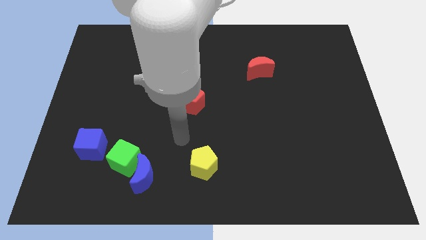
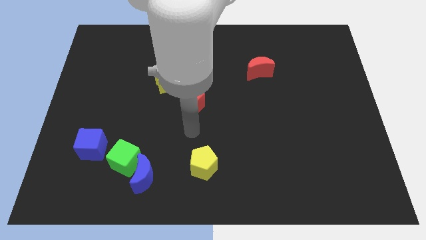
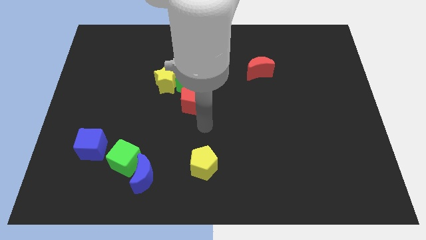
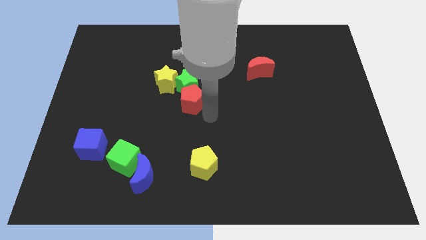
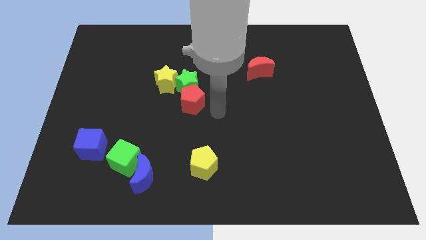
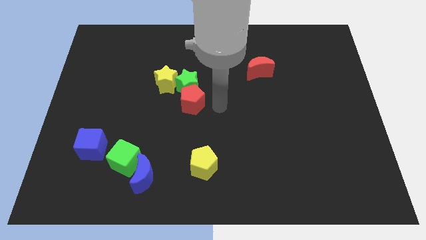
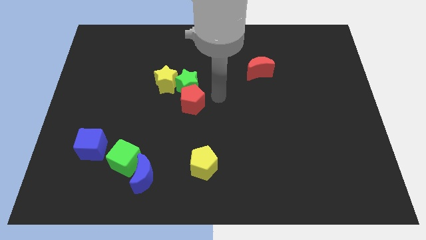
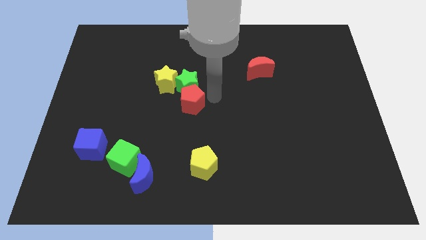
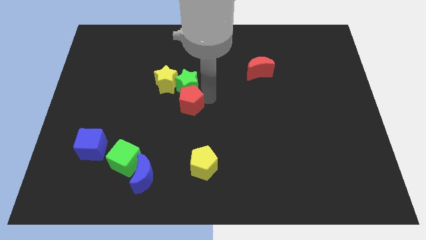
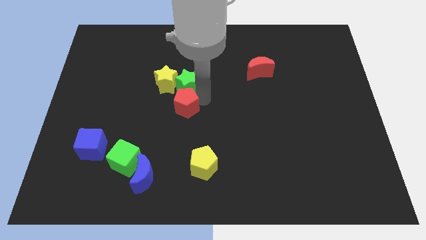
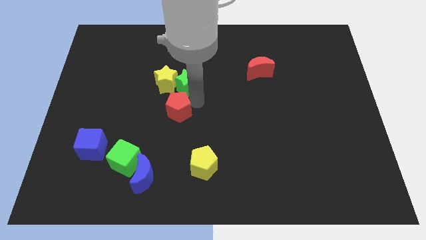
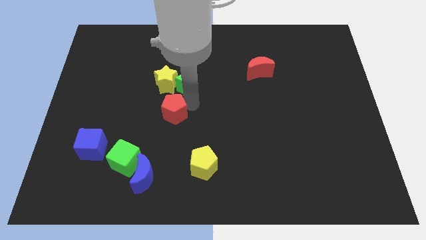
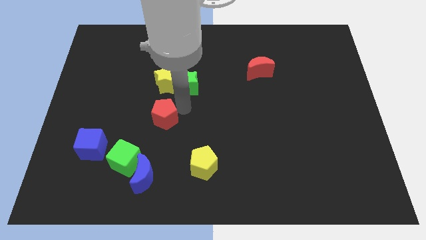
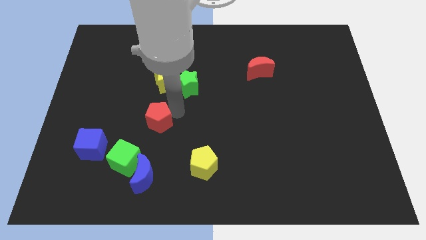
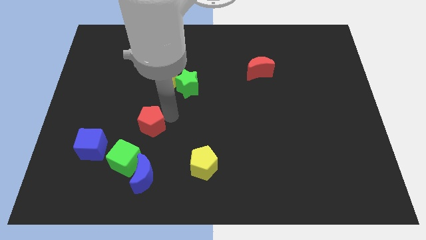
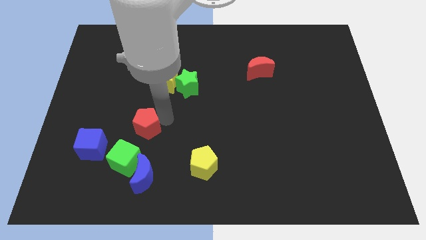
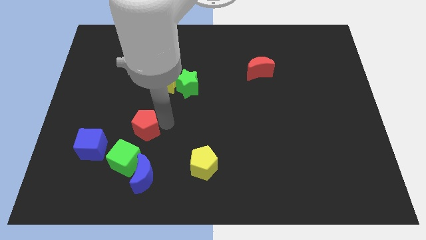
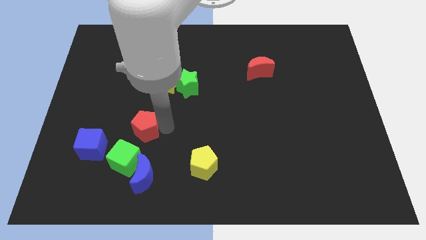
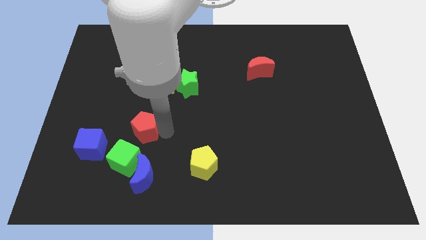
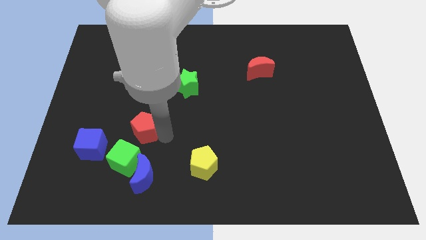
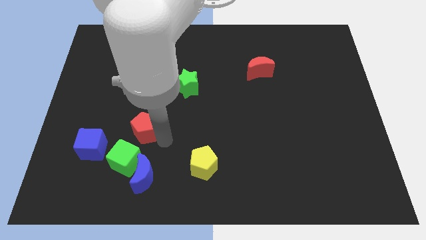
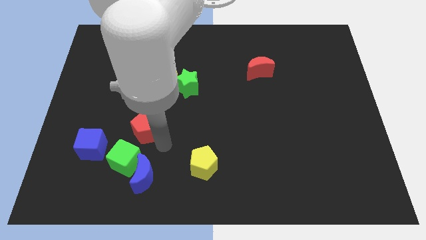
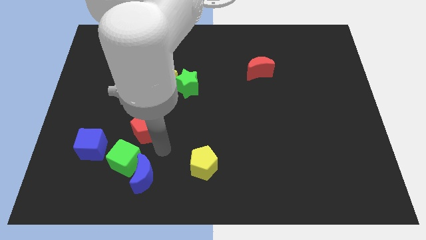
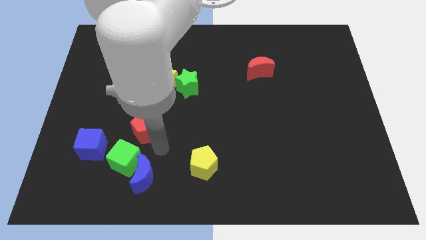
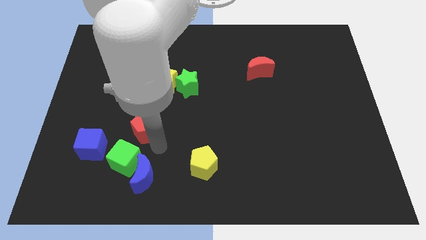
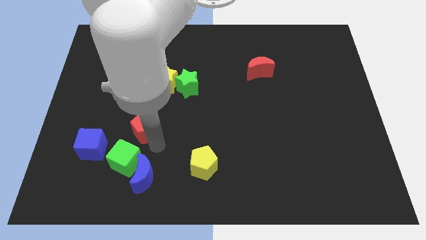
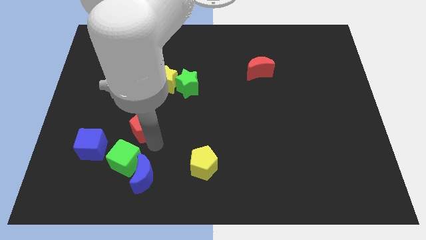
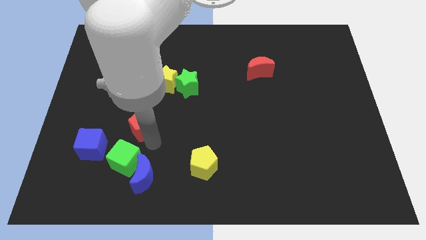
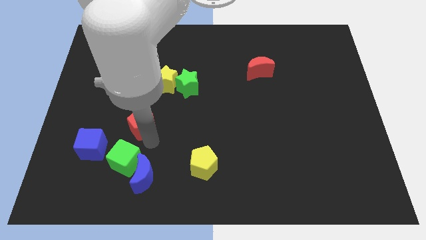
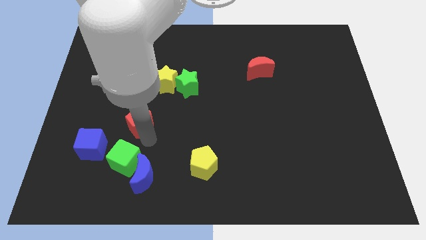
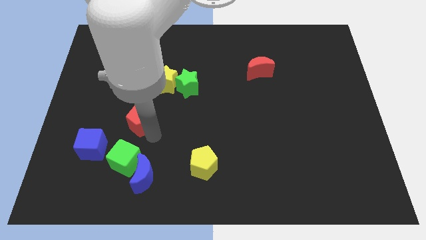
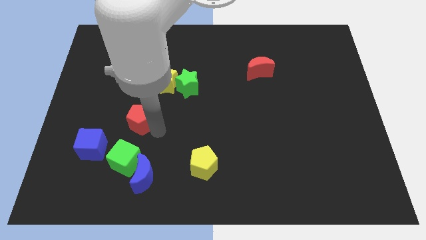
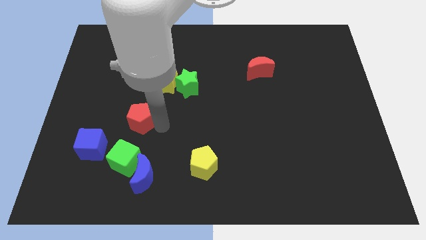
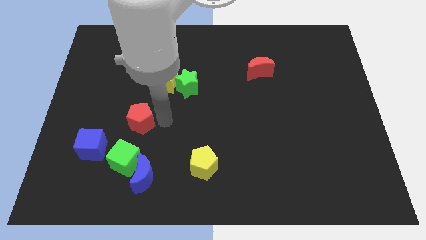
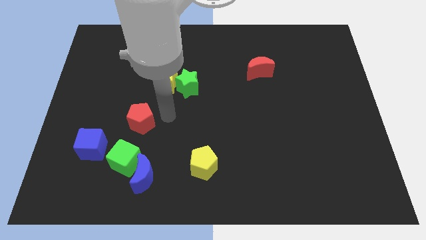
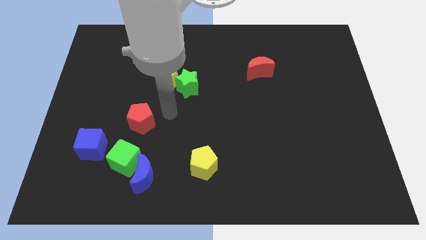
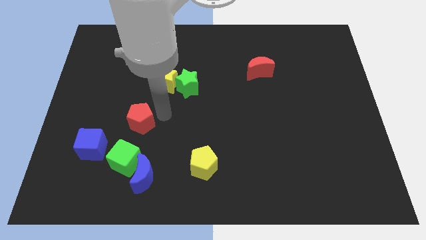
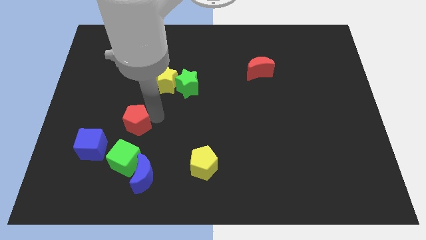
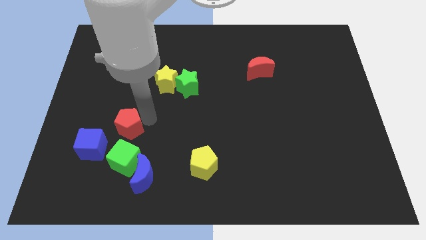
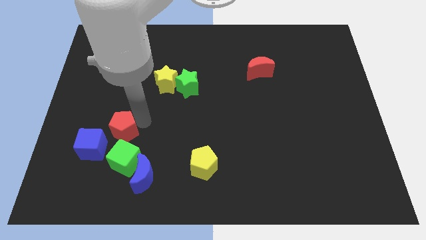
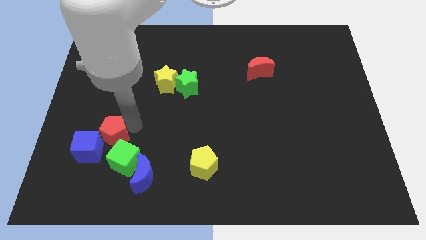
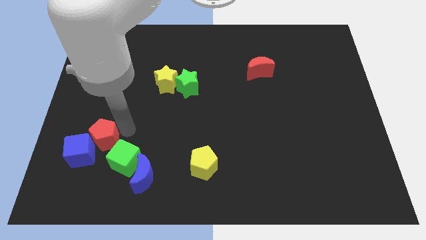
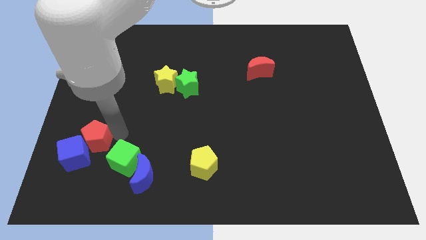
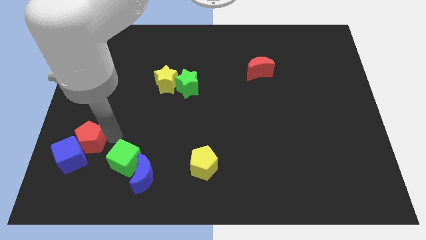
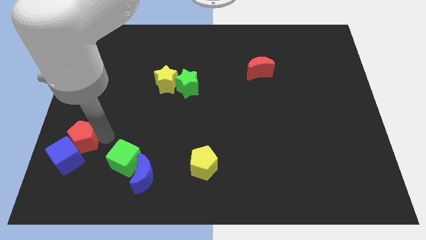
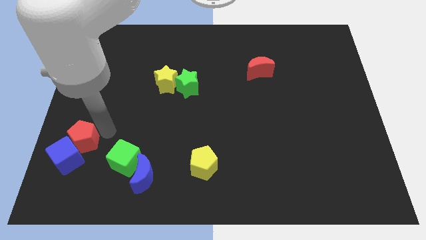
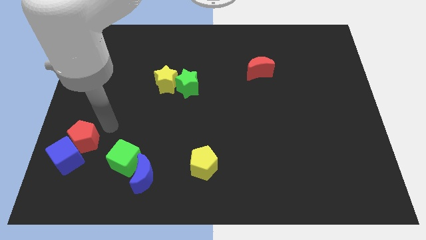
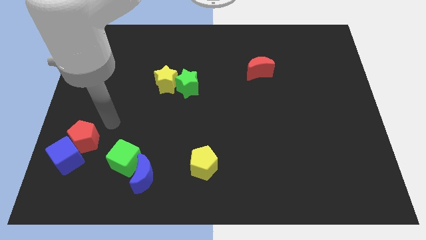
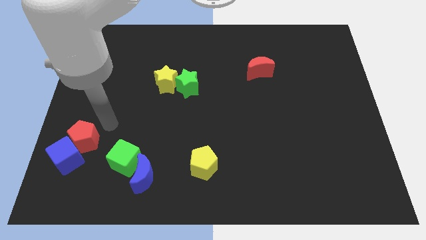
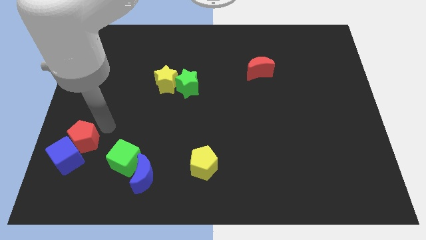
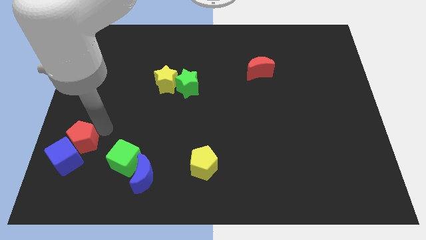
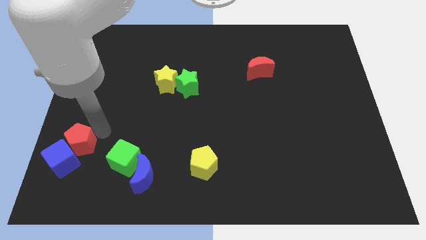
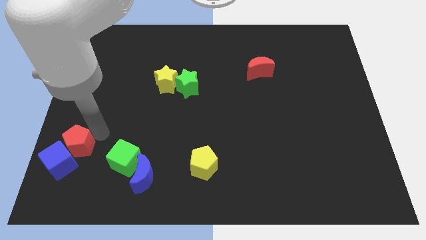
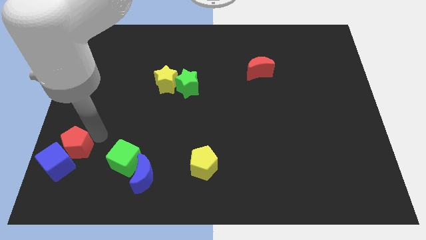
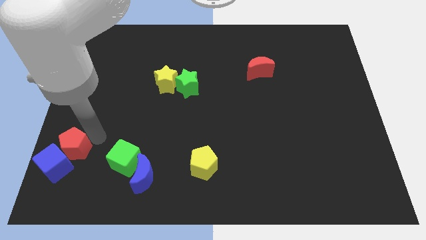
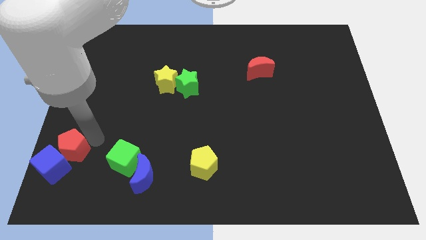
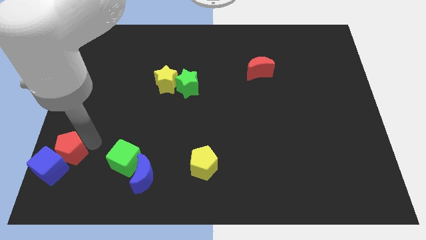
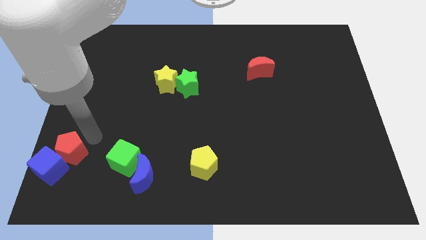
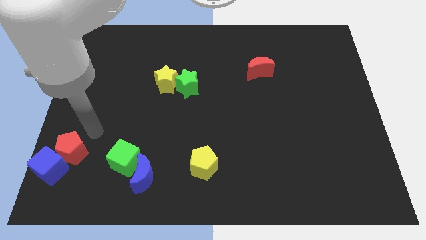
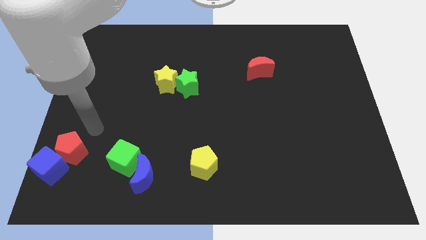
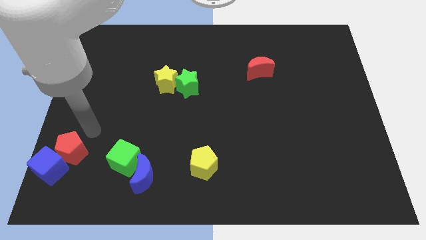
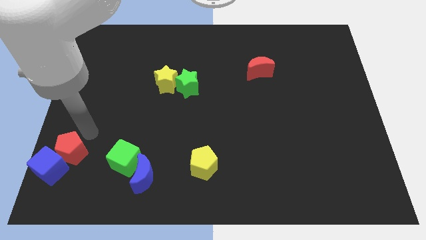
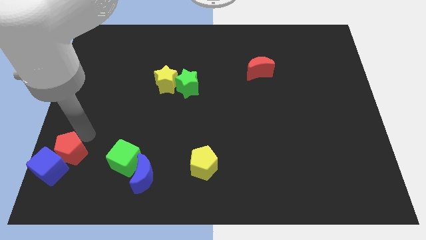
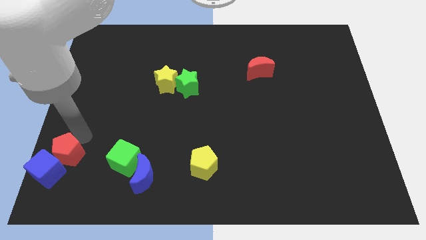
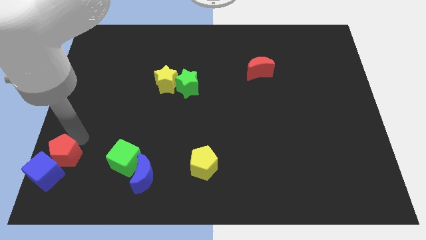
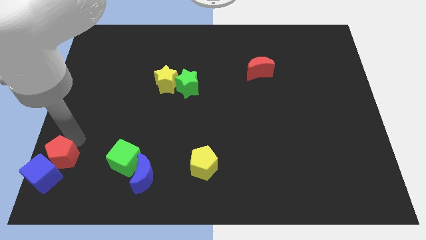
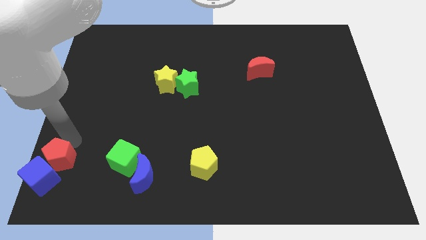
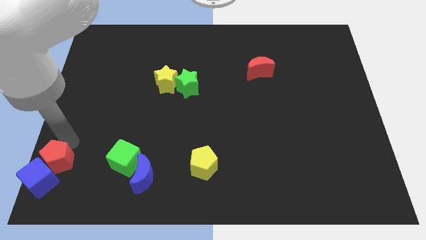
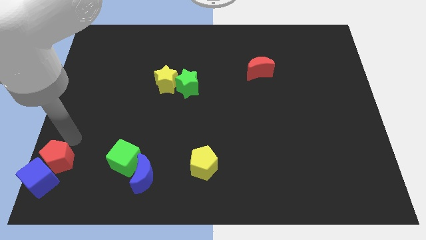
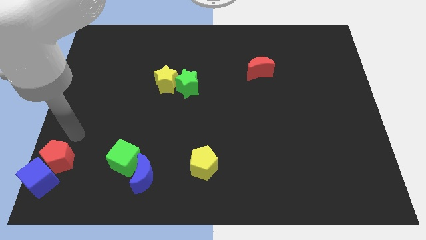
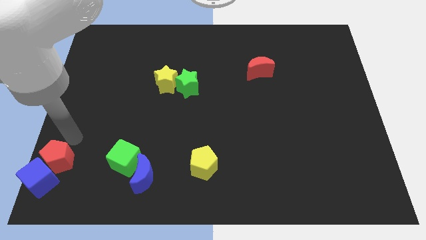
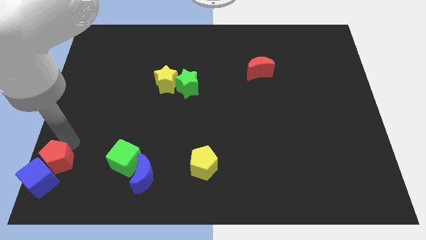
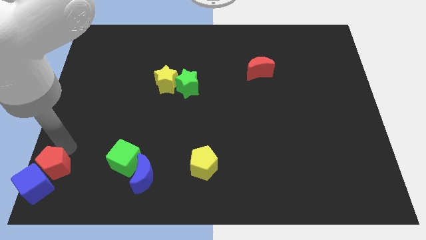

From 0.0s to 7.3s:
slide the red pentagon to the lower left corner
